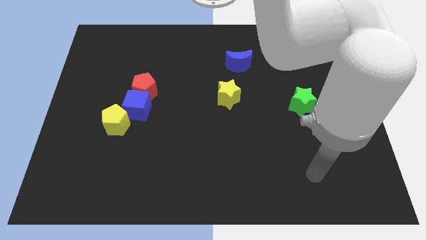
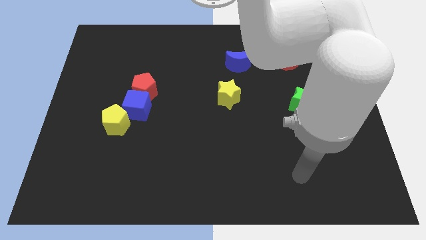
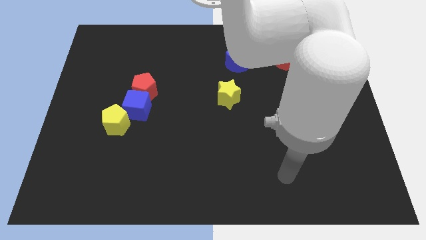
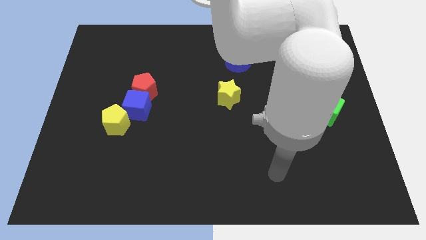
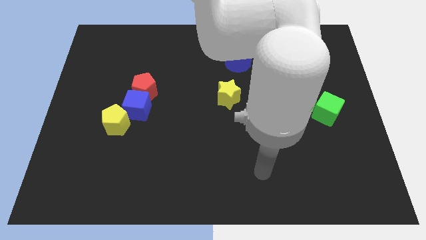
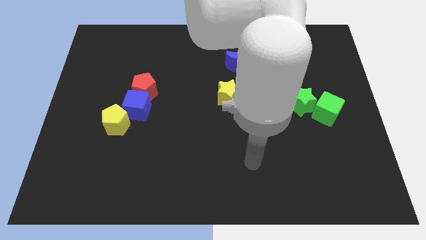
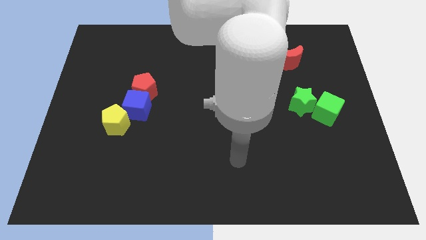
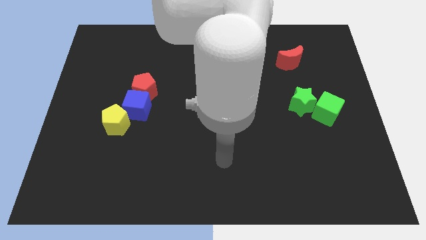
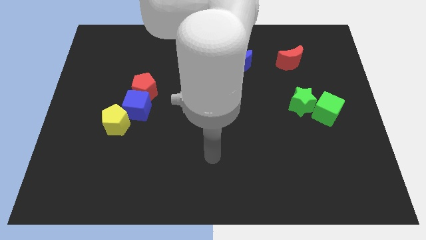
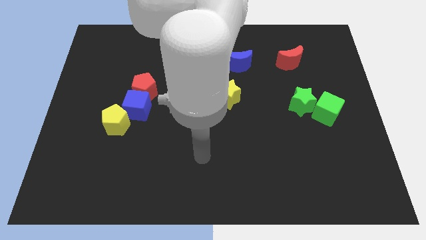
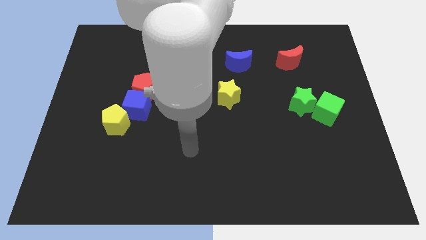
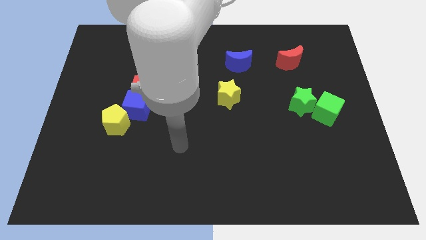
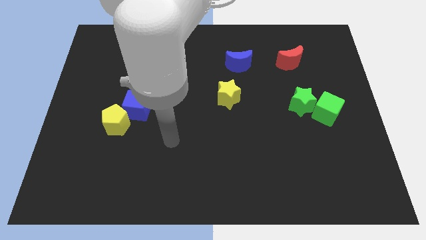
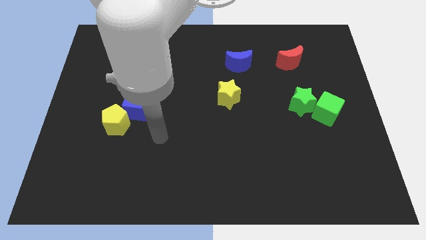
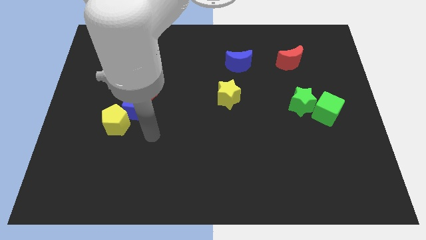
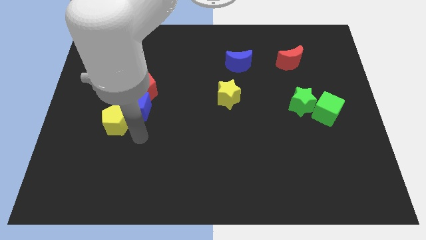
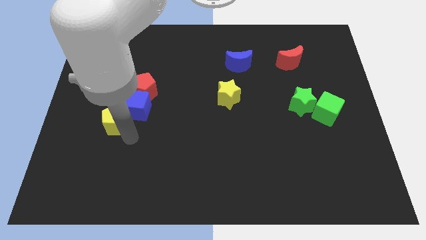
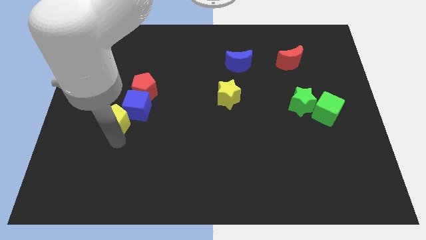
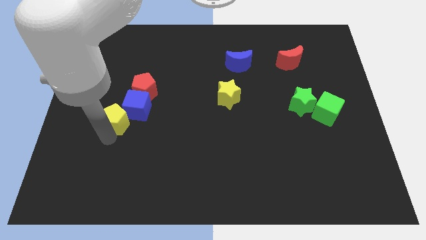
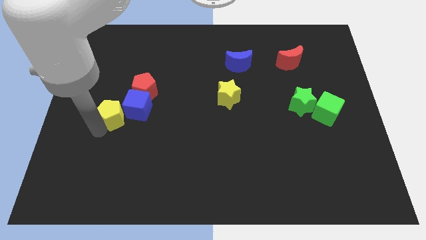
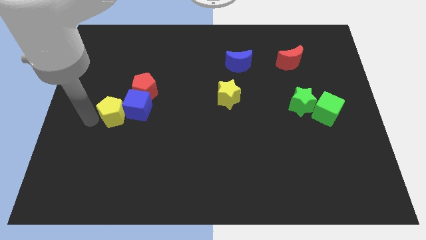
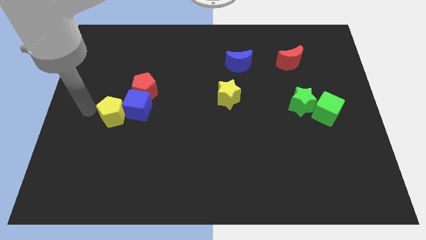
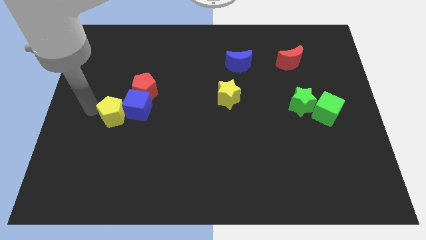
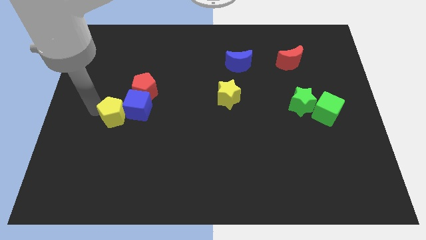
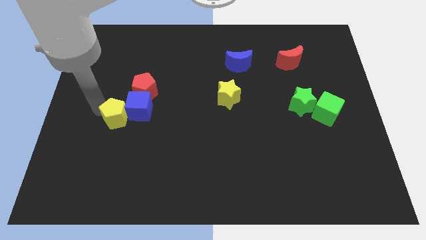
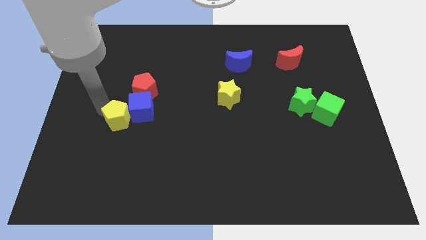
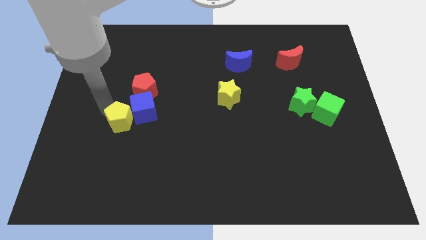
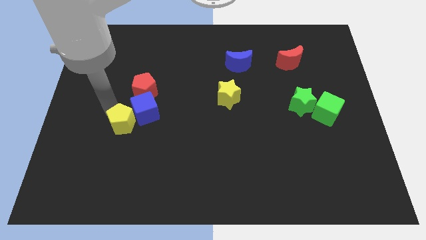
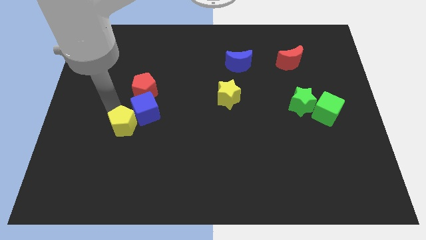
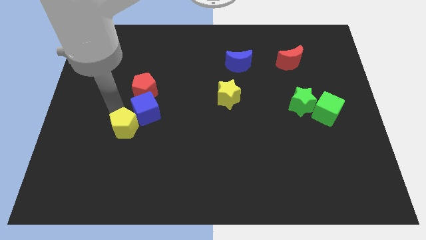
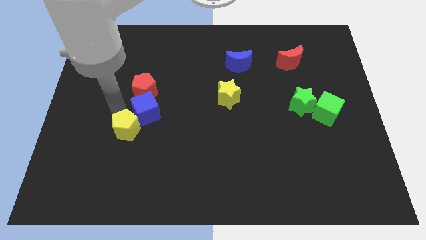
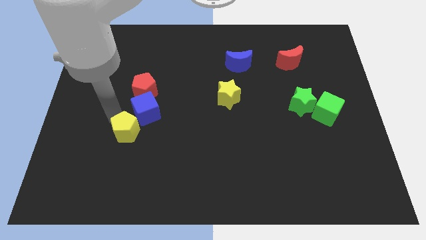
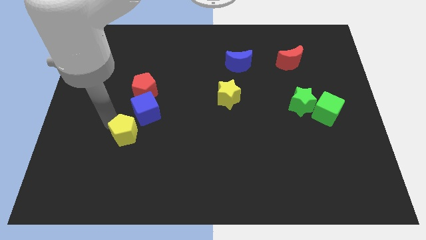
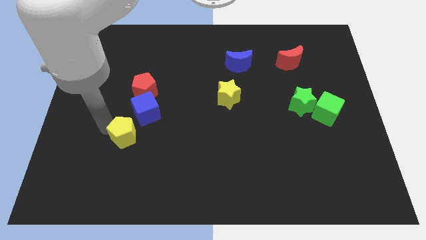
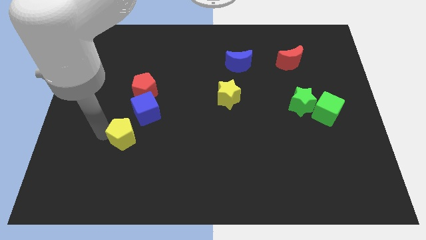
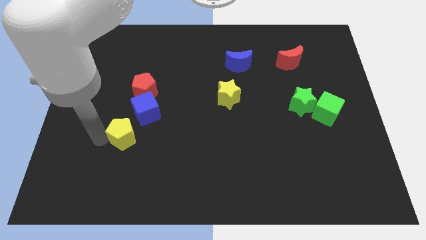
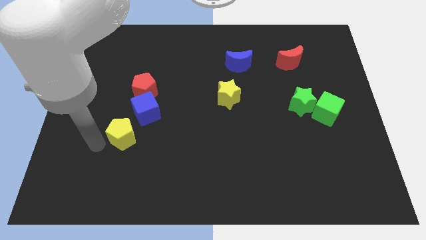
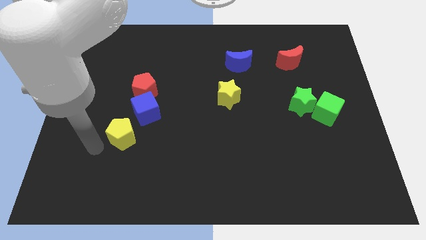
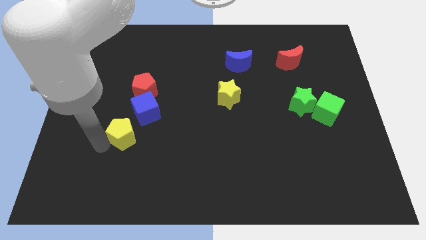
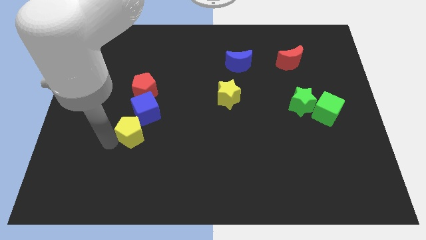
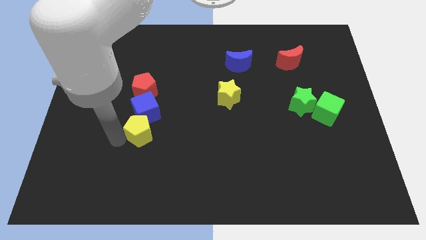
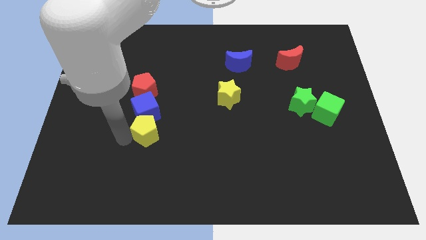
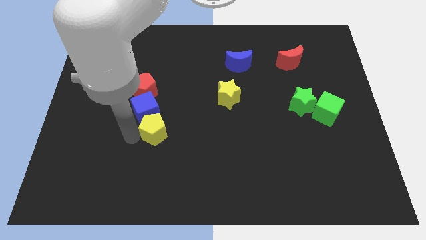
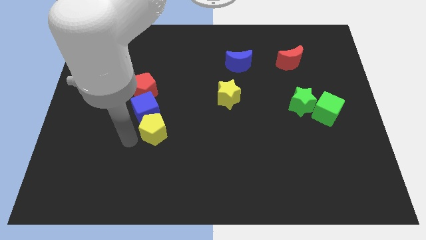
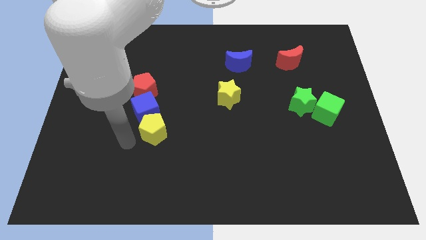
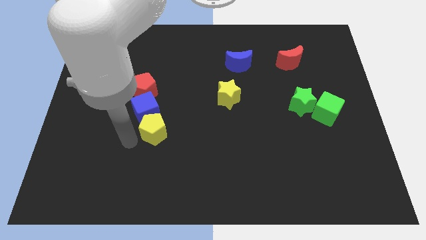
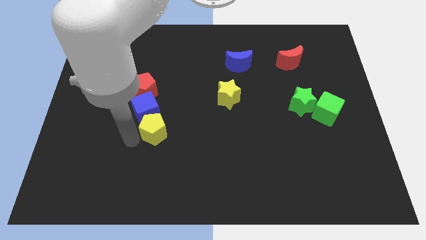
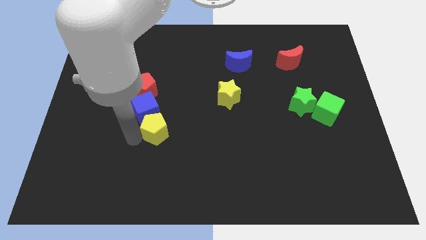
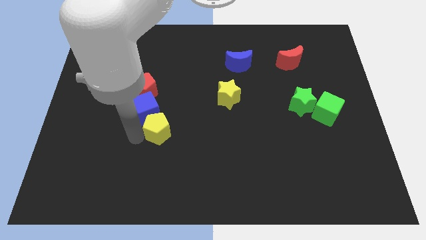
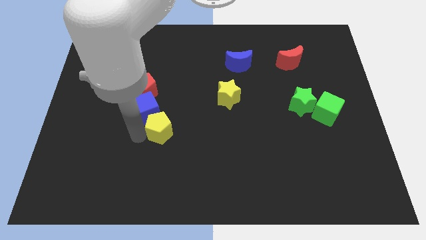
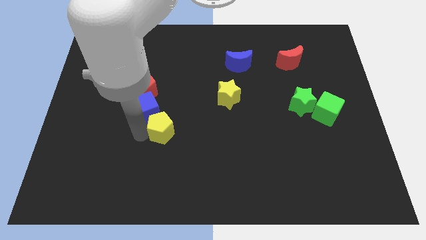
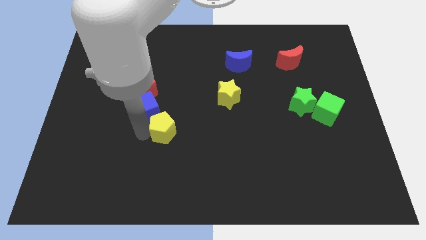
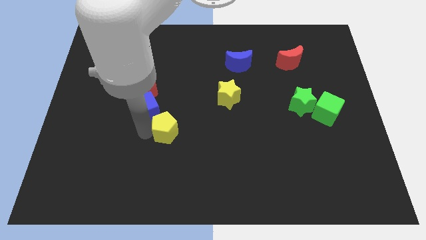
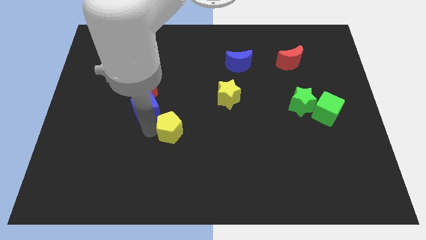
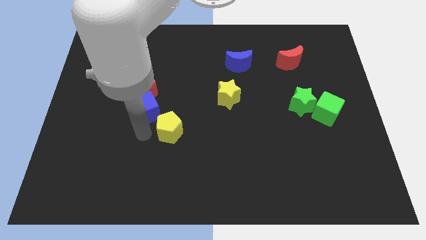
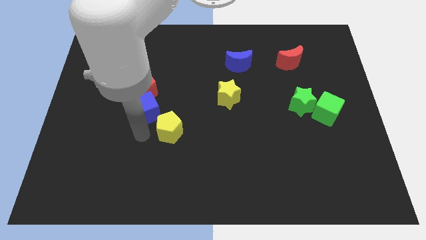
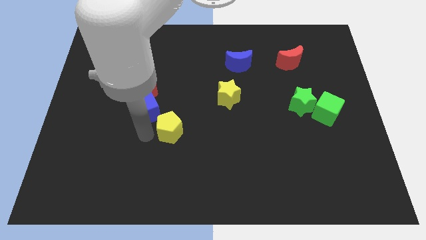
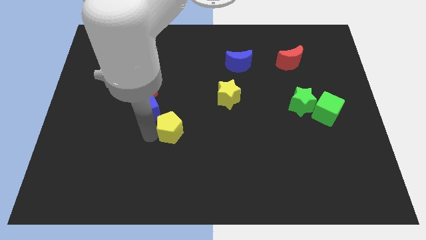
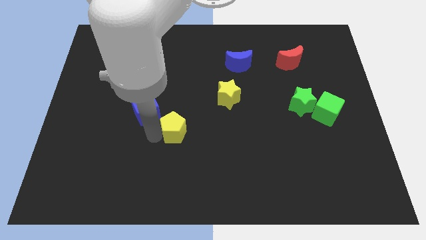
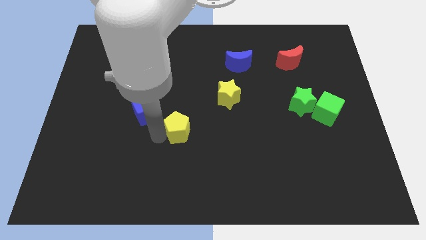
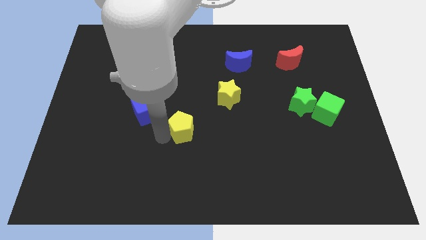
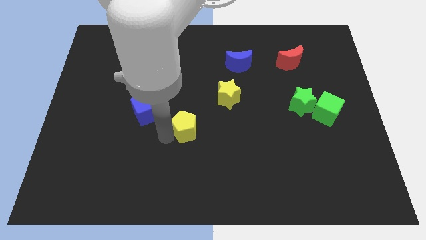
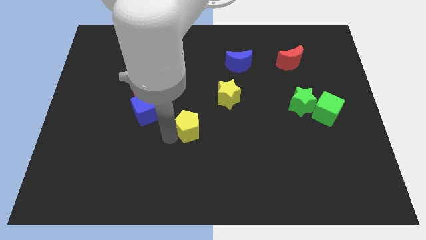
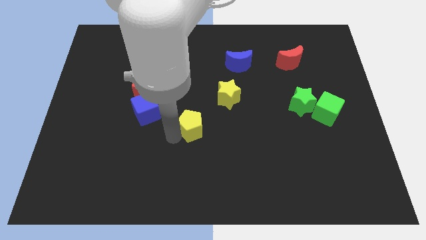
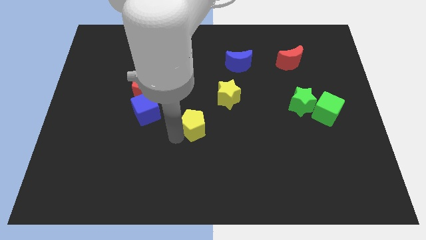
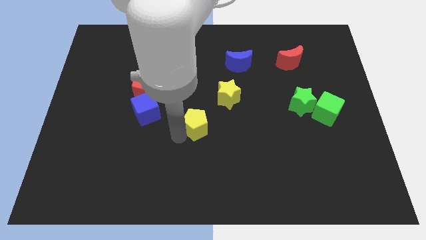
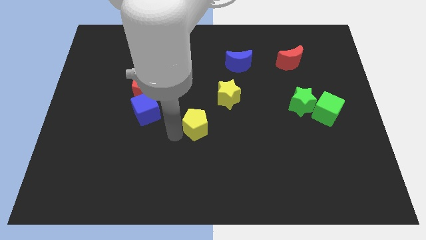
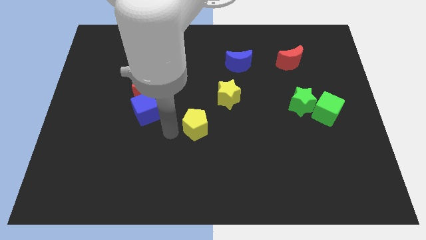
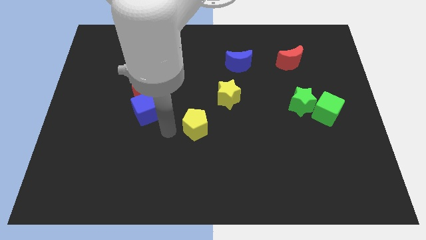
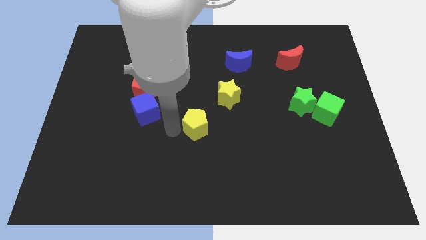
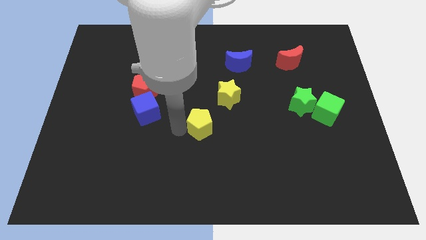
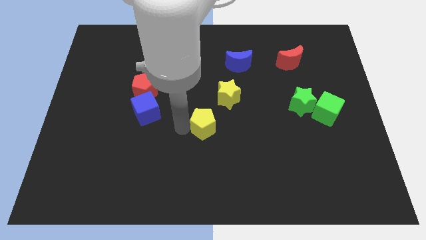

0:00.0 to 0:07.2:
move the yellow pentagon to the right

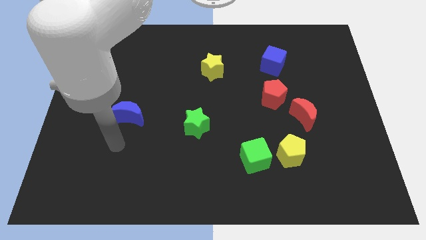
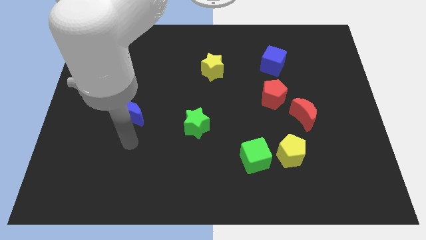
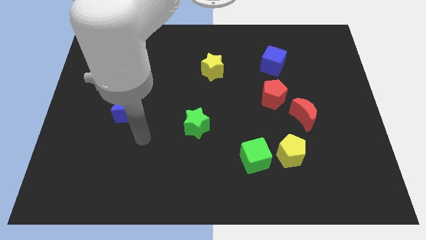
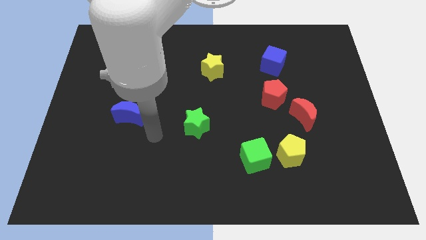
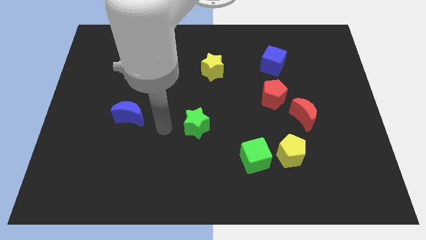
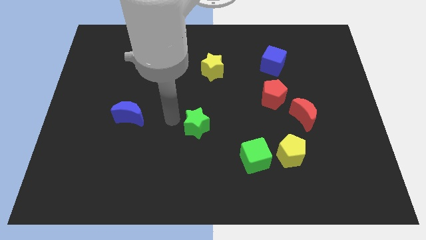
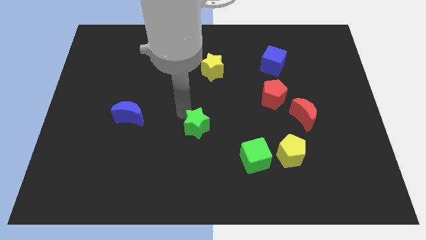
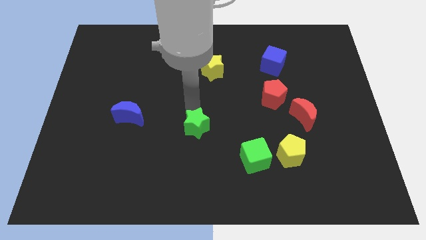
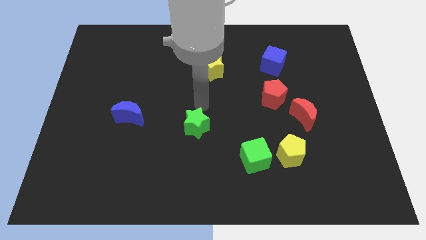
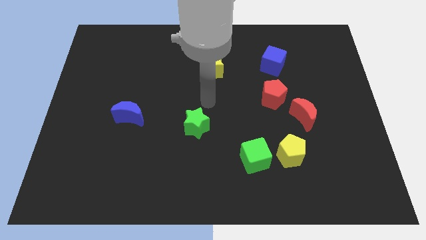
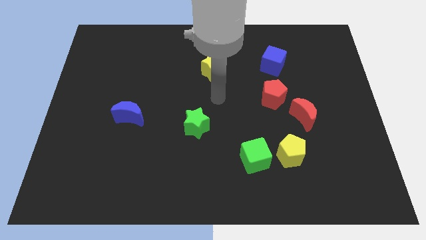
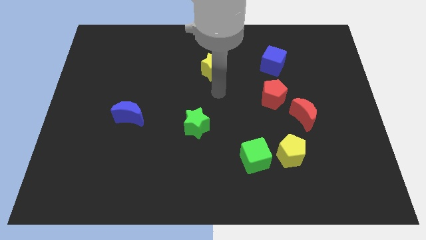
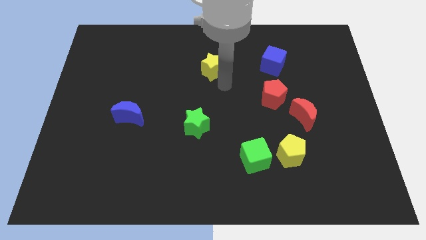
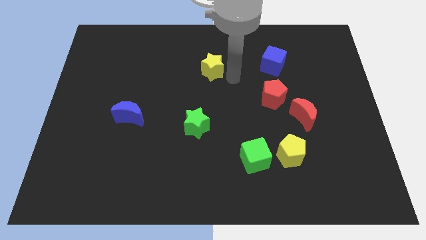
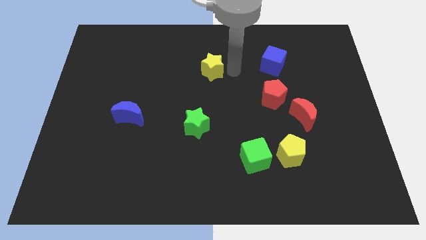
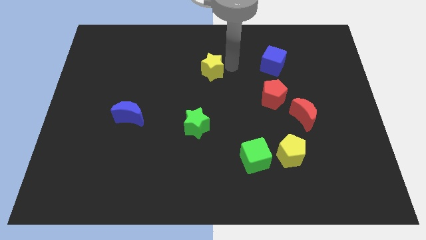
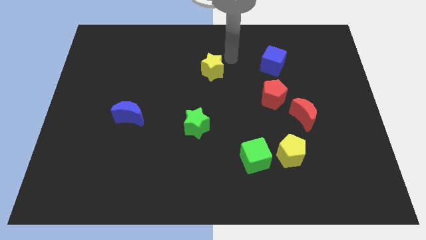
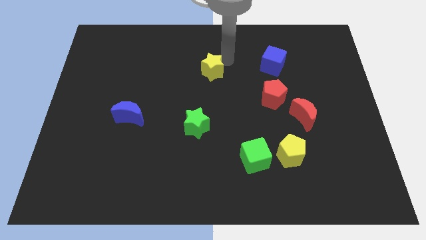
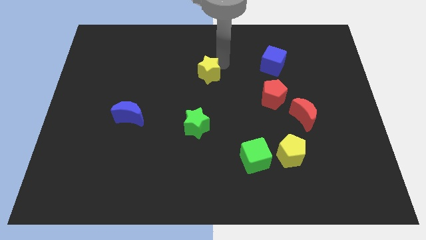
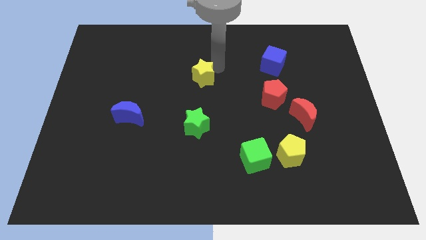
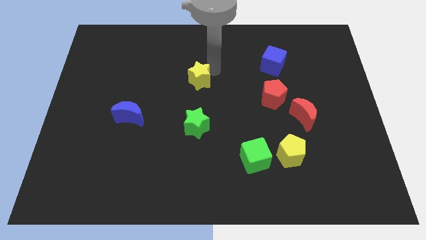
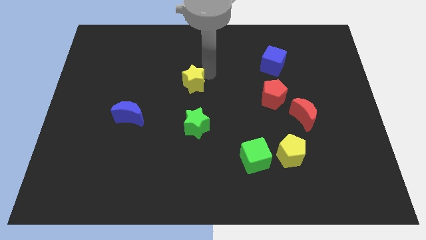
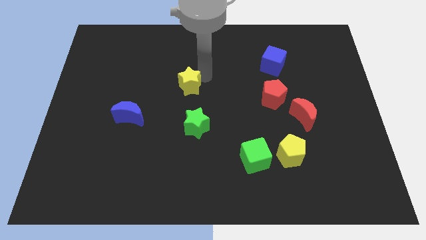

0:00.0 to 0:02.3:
slightly slide the yellow star downwards and to the left diagonally
